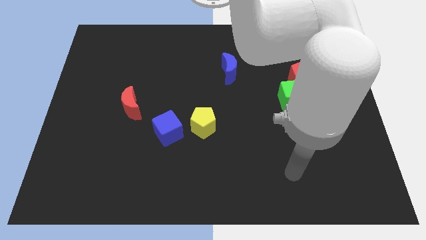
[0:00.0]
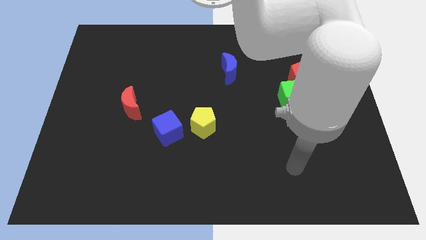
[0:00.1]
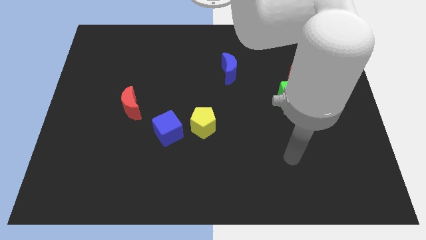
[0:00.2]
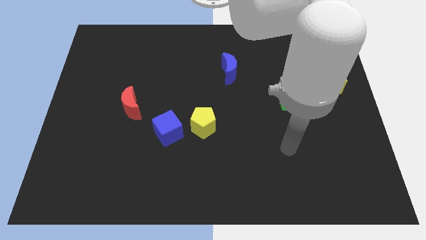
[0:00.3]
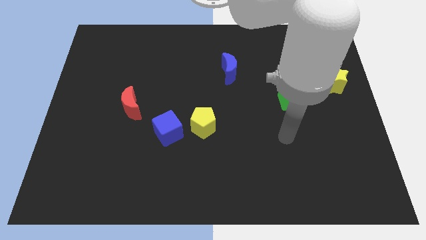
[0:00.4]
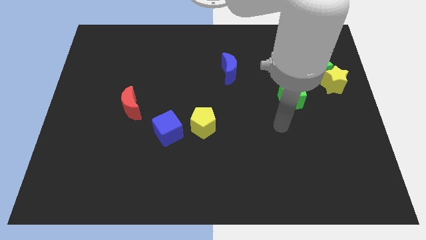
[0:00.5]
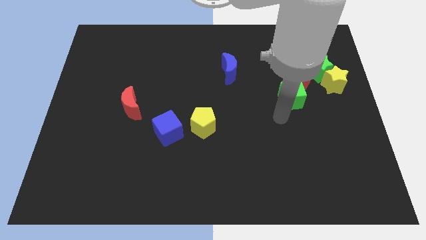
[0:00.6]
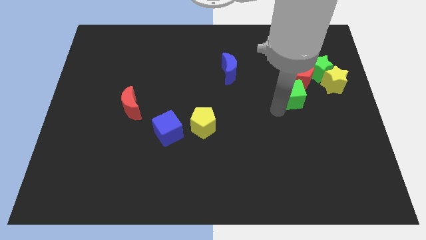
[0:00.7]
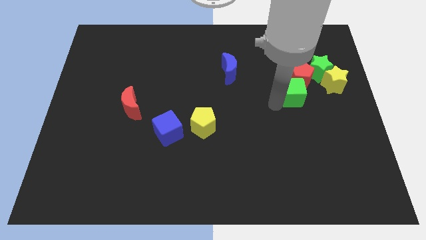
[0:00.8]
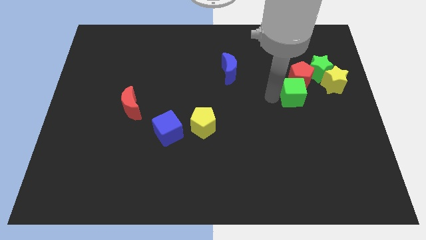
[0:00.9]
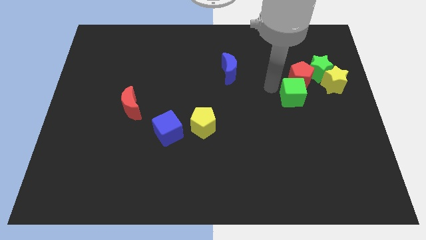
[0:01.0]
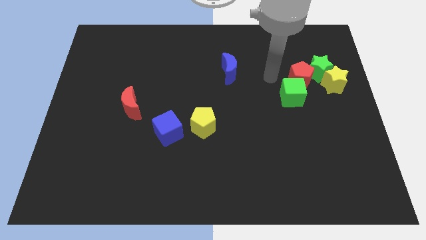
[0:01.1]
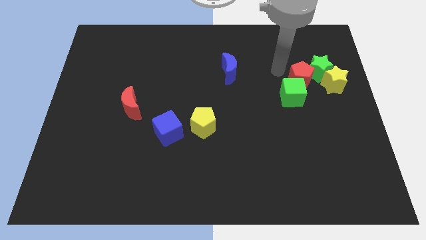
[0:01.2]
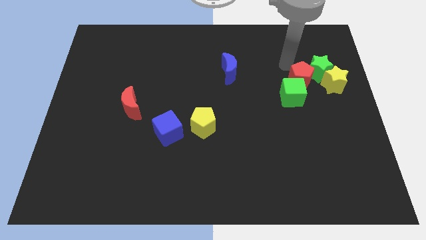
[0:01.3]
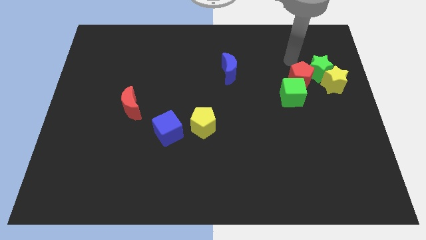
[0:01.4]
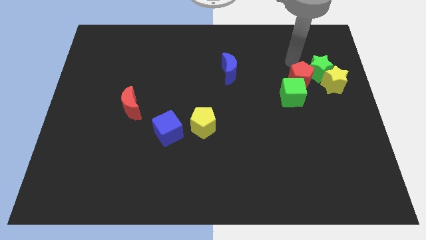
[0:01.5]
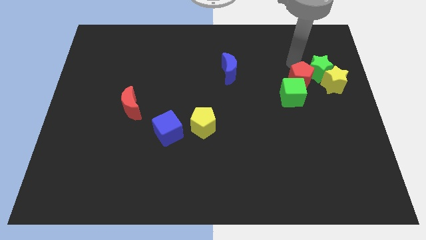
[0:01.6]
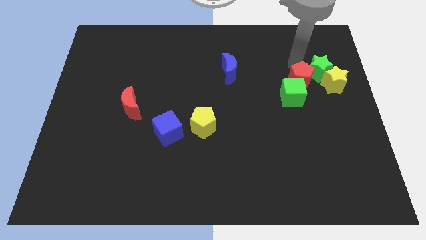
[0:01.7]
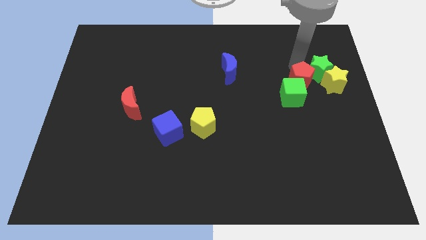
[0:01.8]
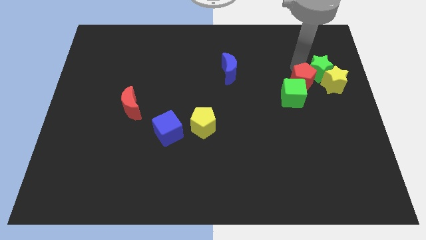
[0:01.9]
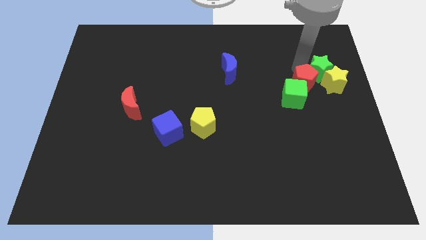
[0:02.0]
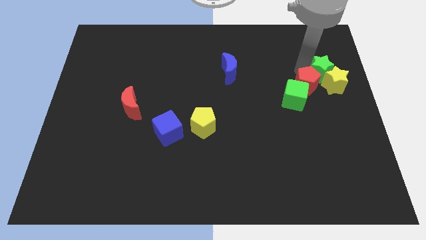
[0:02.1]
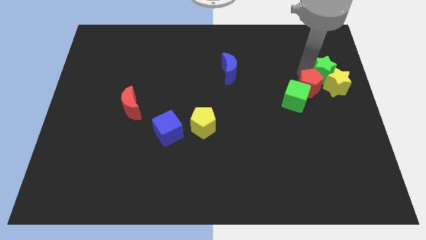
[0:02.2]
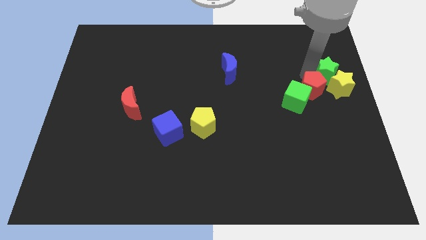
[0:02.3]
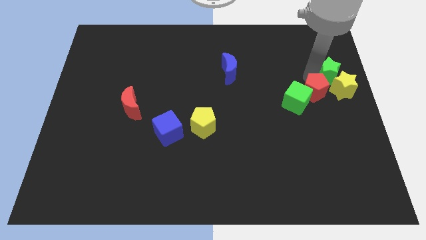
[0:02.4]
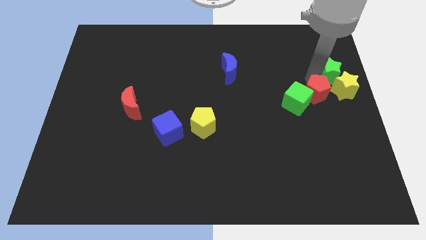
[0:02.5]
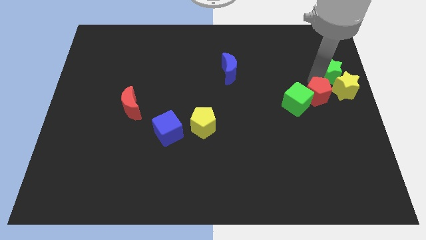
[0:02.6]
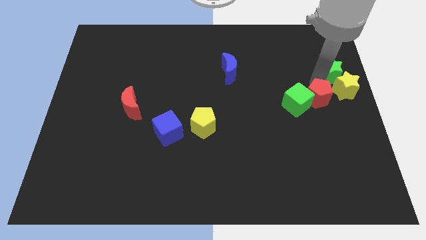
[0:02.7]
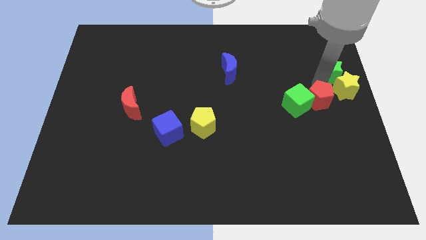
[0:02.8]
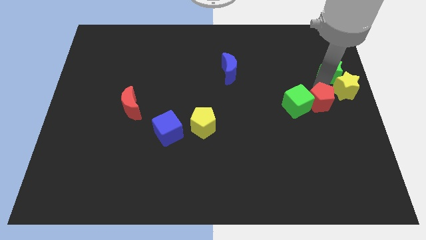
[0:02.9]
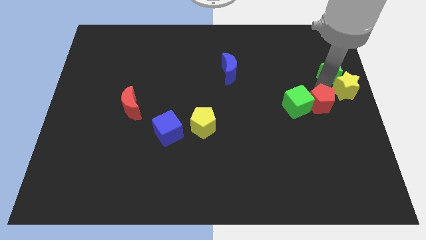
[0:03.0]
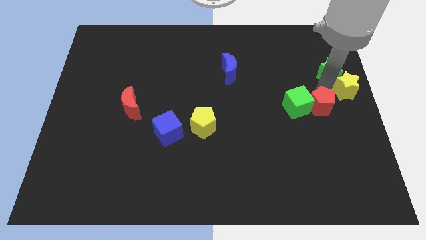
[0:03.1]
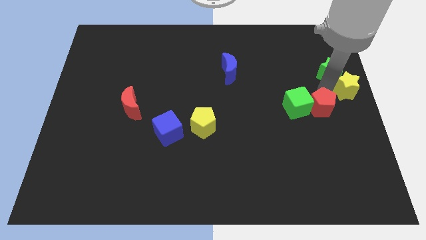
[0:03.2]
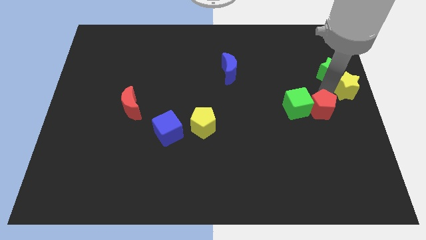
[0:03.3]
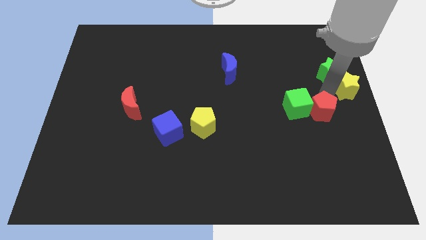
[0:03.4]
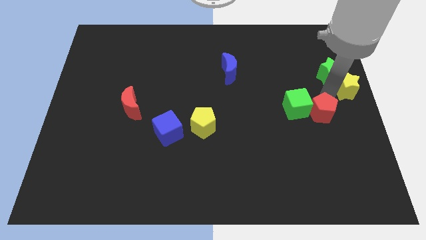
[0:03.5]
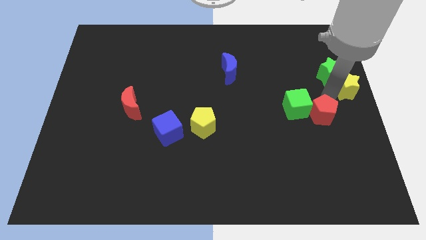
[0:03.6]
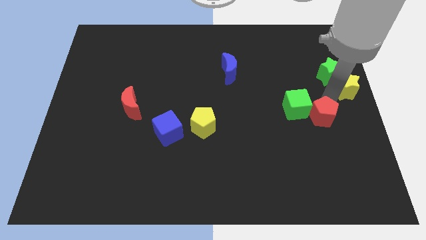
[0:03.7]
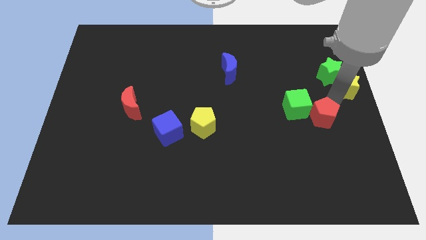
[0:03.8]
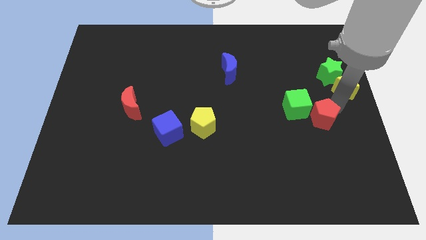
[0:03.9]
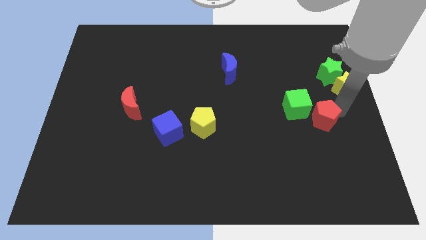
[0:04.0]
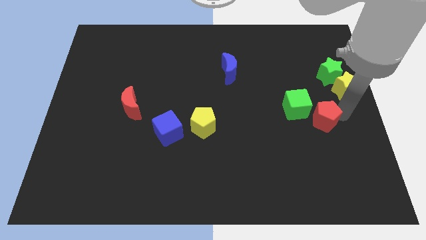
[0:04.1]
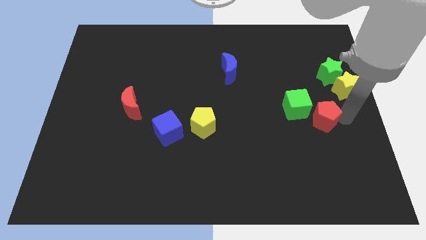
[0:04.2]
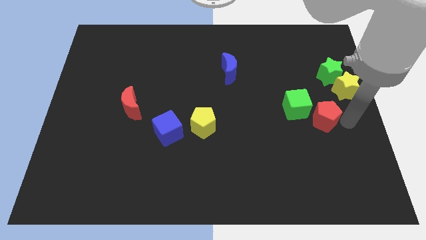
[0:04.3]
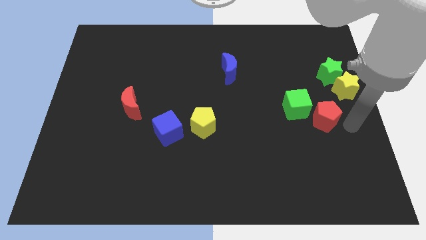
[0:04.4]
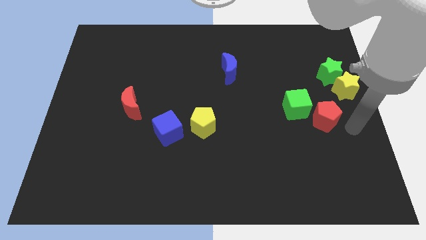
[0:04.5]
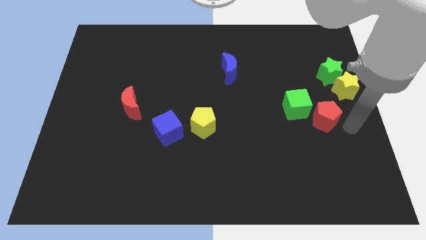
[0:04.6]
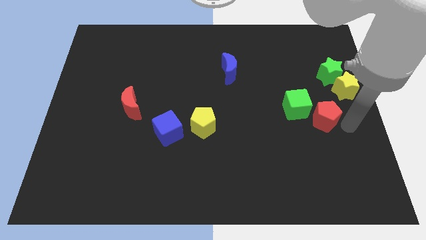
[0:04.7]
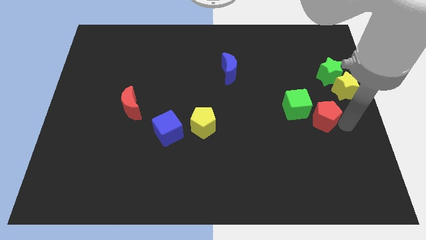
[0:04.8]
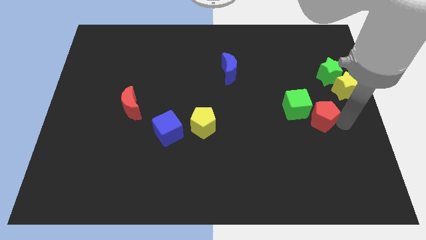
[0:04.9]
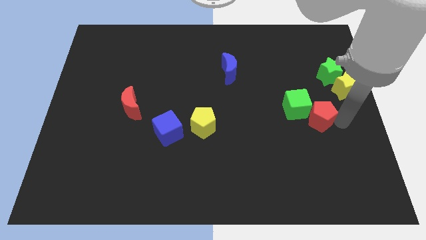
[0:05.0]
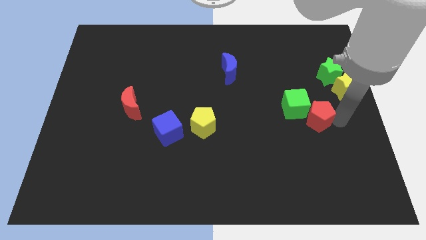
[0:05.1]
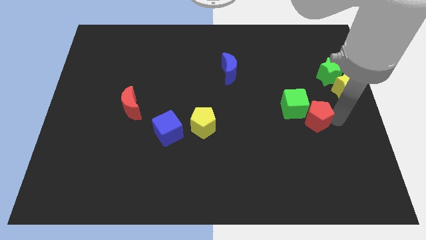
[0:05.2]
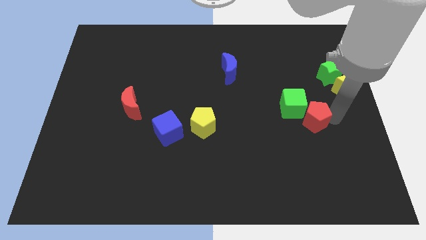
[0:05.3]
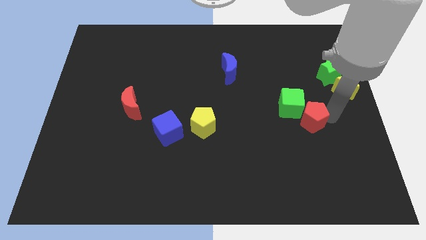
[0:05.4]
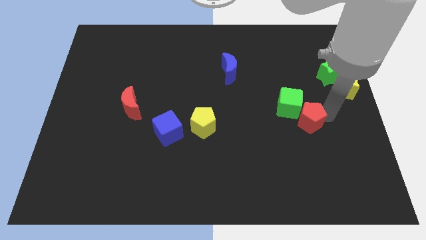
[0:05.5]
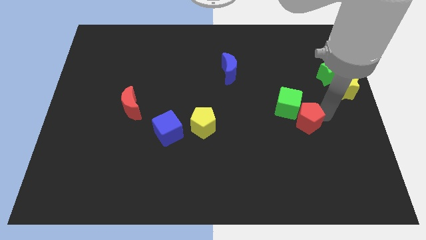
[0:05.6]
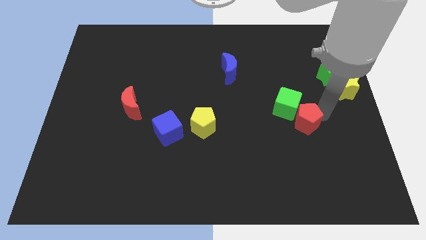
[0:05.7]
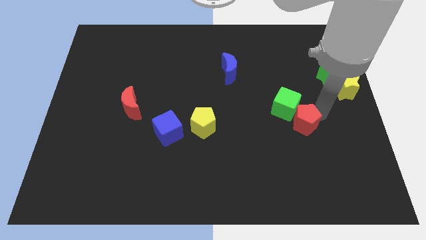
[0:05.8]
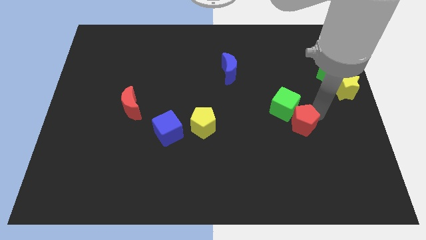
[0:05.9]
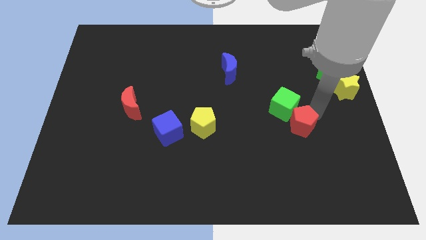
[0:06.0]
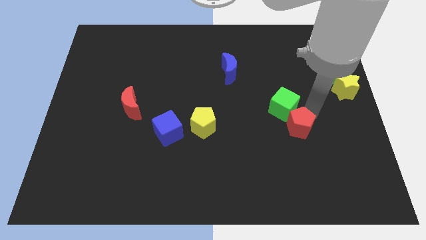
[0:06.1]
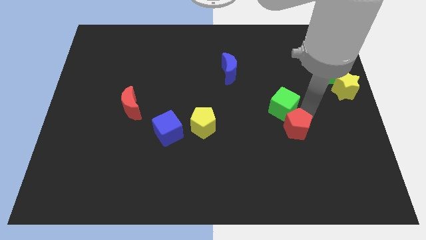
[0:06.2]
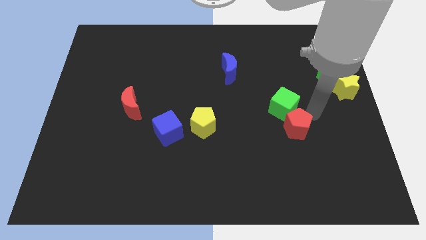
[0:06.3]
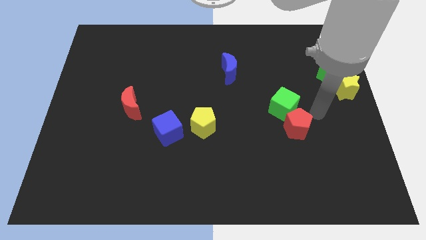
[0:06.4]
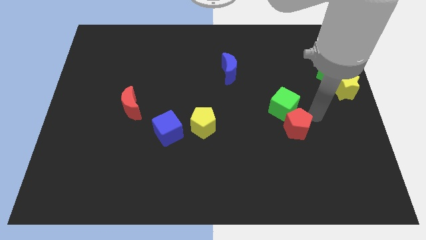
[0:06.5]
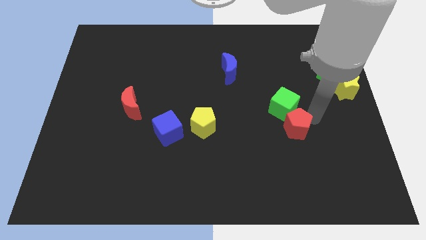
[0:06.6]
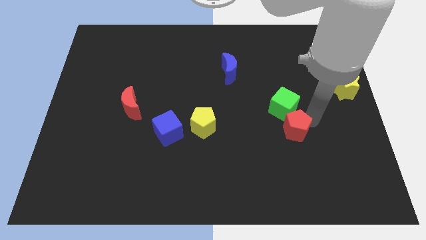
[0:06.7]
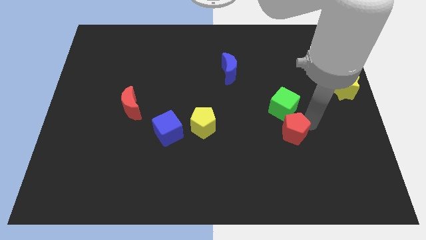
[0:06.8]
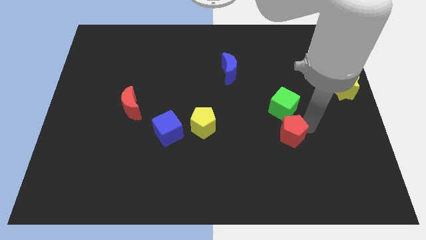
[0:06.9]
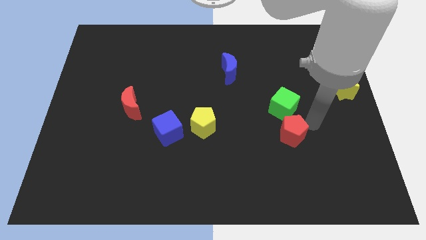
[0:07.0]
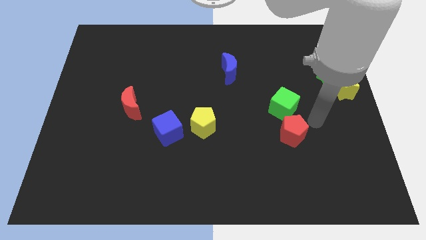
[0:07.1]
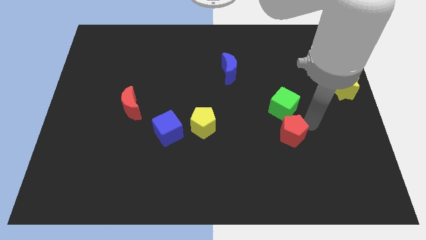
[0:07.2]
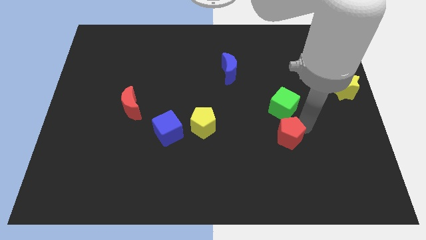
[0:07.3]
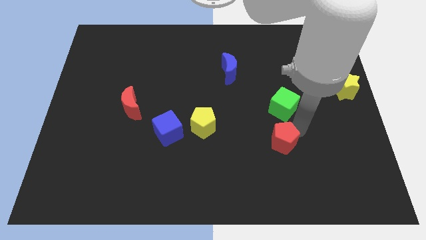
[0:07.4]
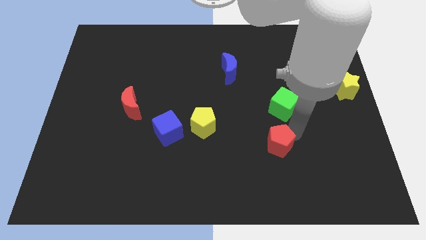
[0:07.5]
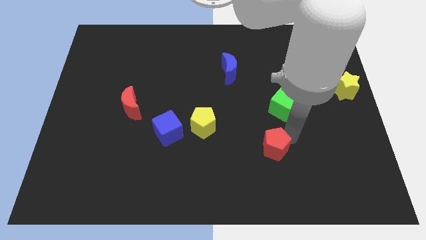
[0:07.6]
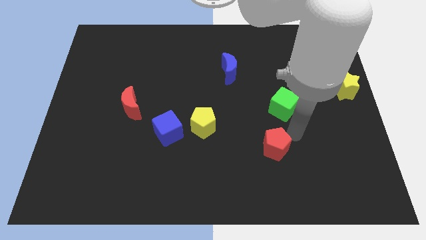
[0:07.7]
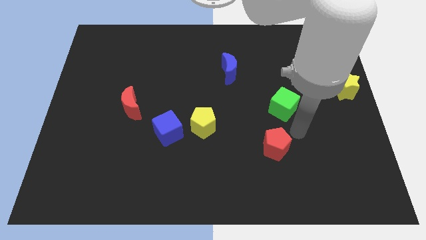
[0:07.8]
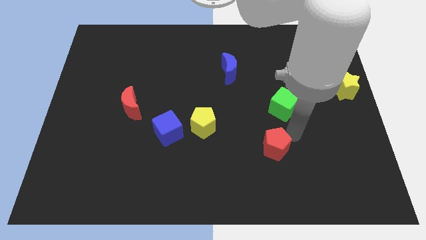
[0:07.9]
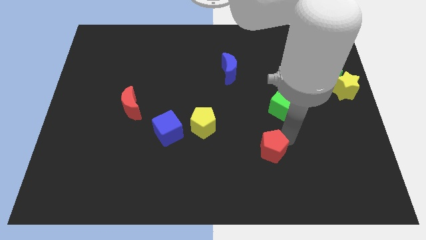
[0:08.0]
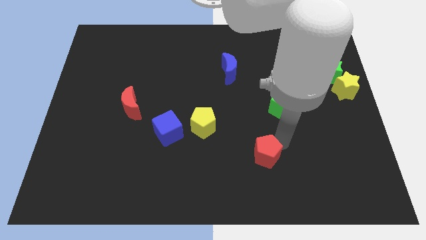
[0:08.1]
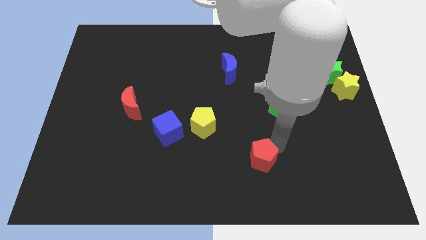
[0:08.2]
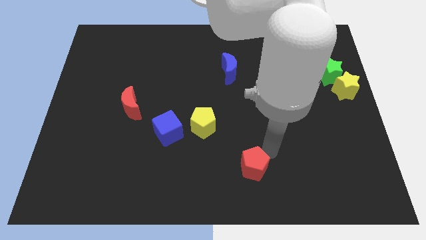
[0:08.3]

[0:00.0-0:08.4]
put the red pentagon to the bottom
